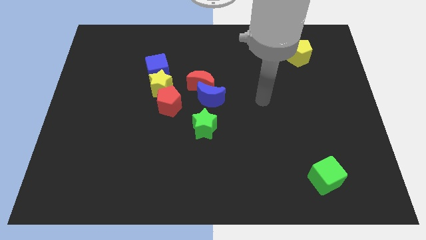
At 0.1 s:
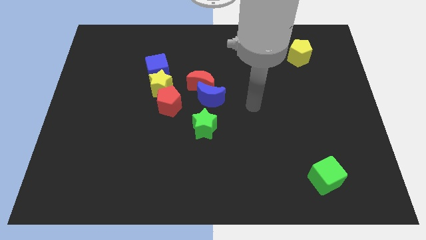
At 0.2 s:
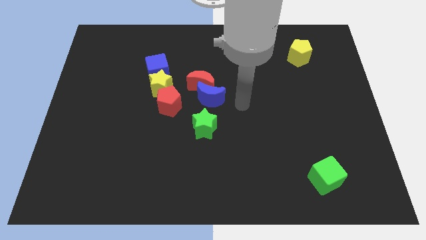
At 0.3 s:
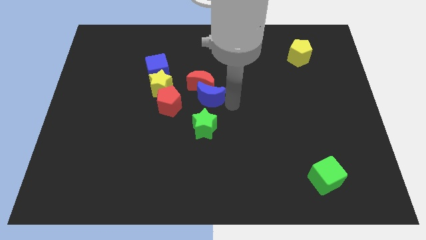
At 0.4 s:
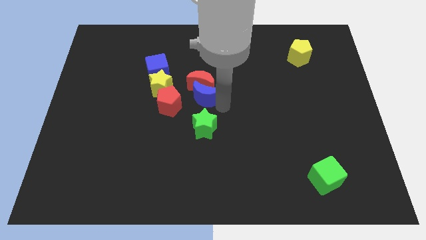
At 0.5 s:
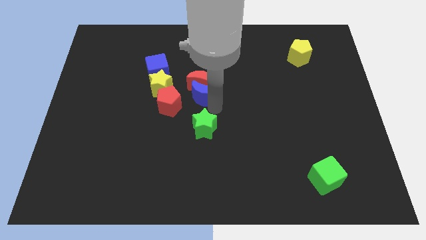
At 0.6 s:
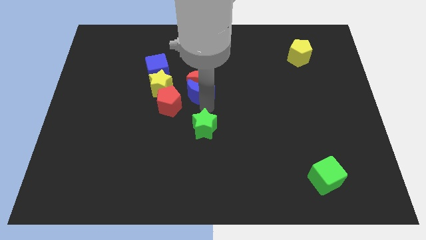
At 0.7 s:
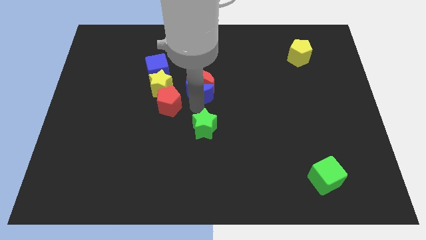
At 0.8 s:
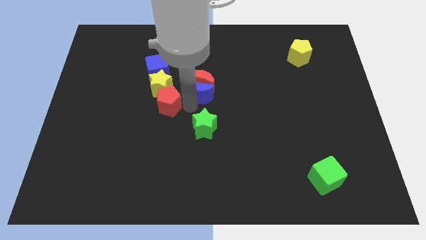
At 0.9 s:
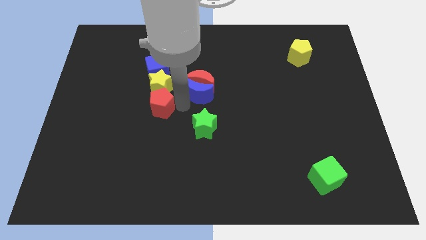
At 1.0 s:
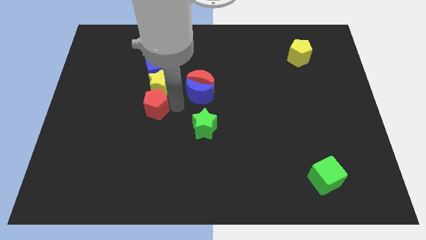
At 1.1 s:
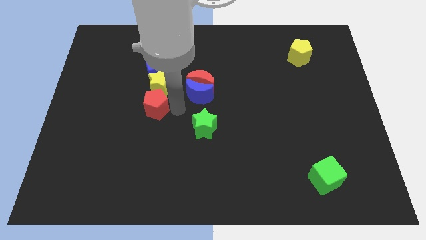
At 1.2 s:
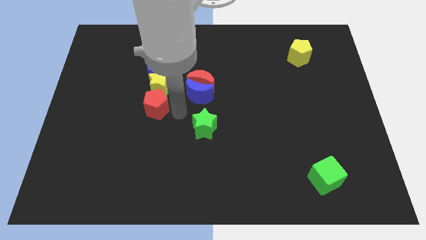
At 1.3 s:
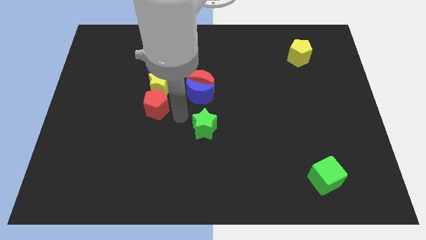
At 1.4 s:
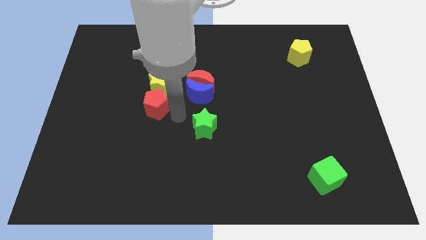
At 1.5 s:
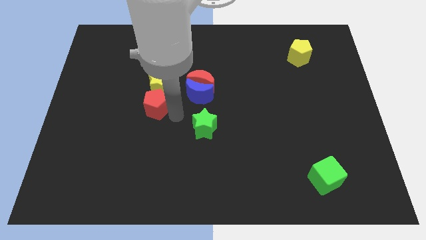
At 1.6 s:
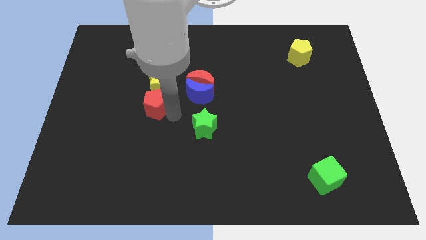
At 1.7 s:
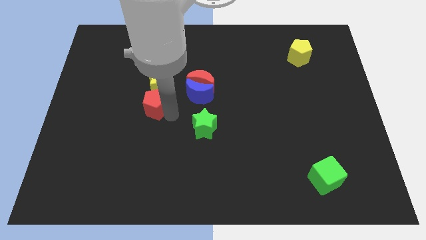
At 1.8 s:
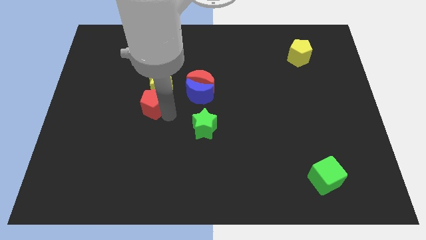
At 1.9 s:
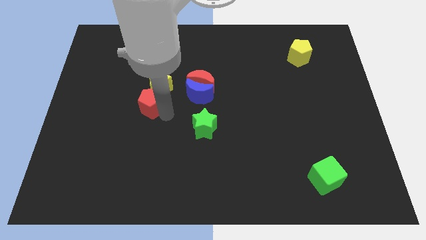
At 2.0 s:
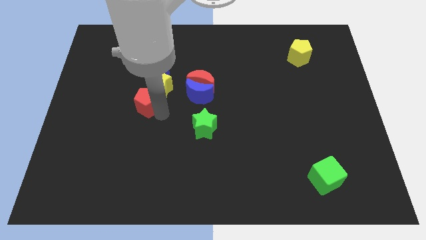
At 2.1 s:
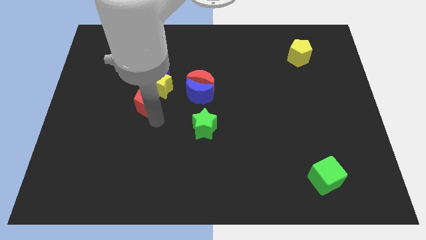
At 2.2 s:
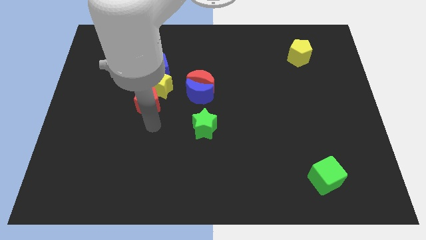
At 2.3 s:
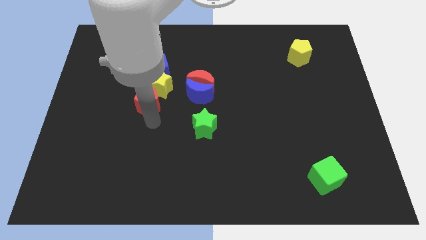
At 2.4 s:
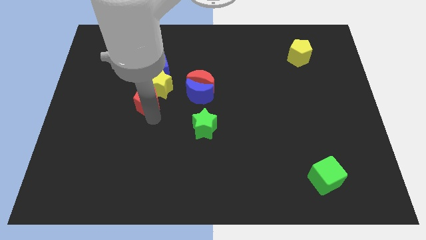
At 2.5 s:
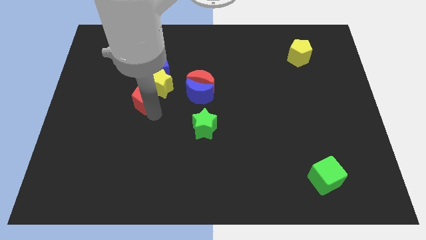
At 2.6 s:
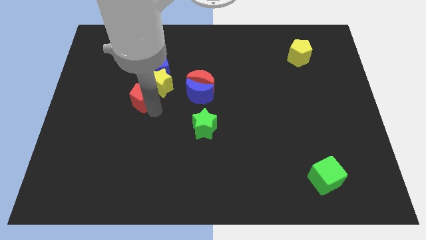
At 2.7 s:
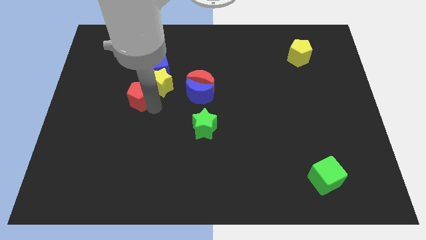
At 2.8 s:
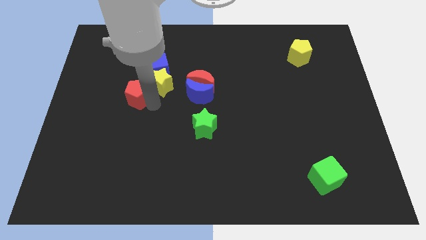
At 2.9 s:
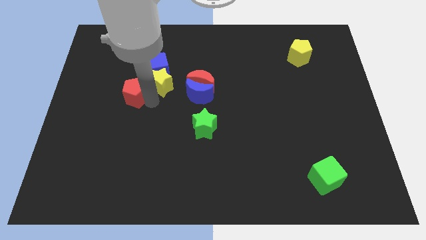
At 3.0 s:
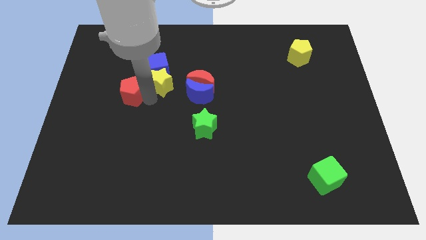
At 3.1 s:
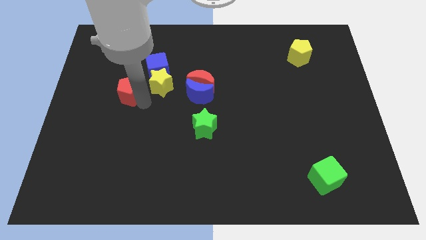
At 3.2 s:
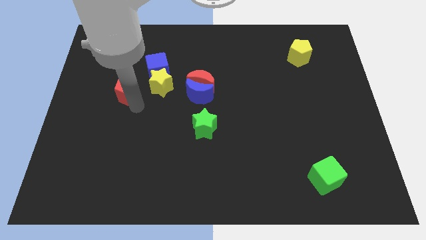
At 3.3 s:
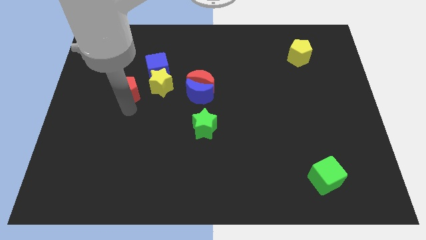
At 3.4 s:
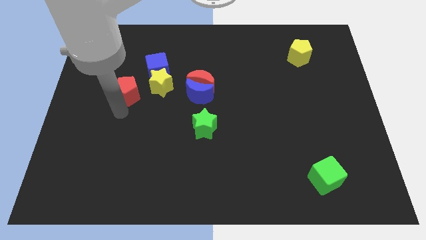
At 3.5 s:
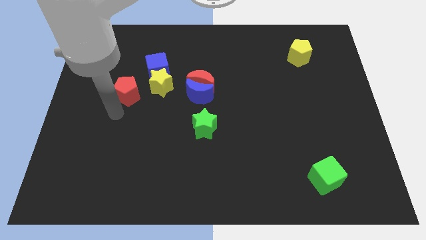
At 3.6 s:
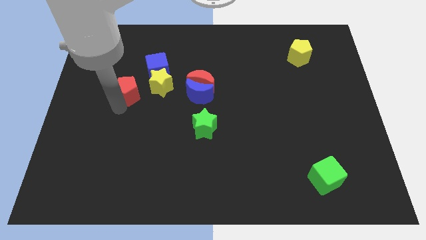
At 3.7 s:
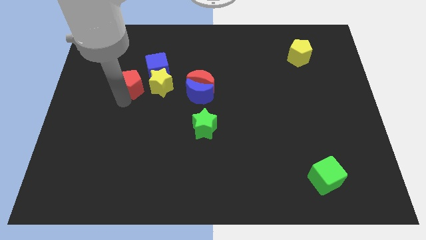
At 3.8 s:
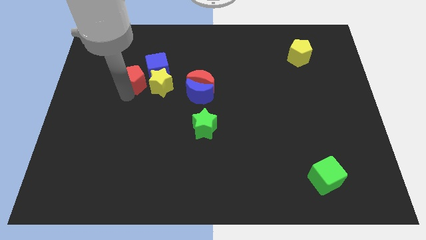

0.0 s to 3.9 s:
move the red pentagon to the top left side of the yellow star

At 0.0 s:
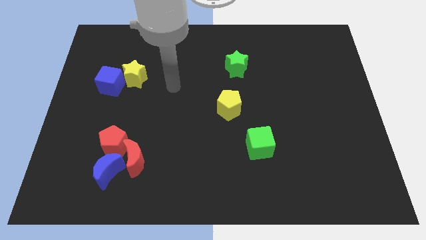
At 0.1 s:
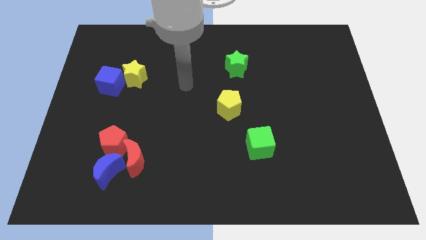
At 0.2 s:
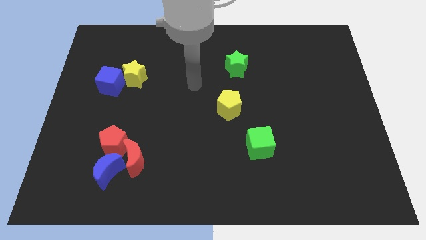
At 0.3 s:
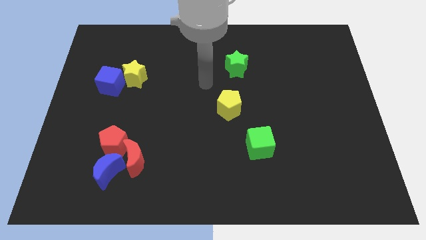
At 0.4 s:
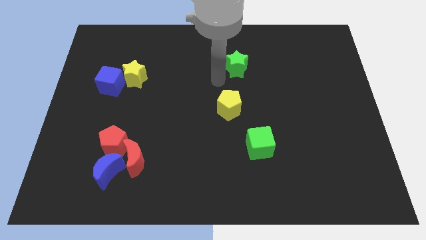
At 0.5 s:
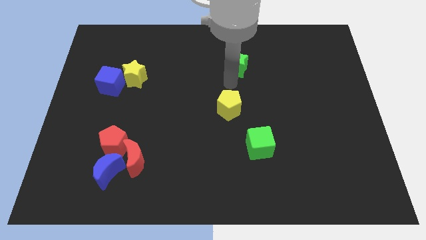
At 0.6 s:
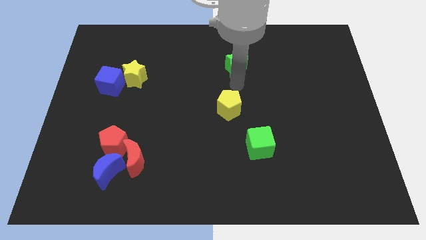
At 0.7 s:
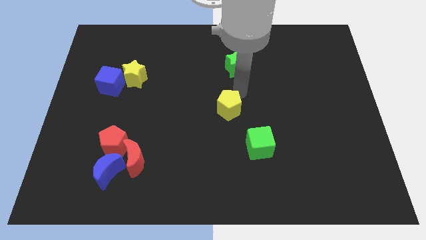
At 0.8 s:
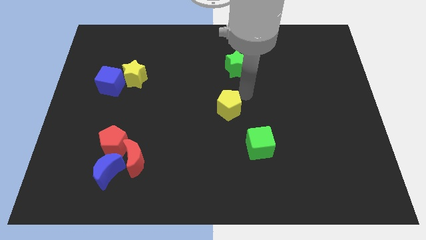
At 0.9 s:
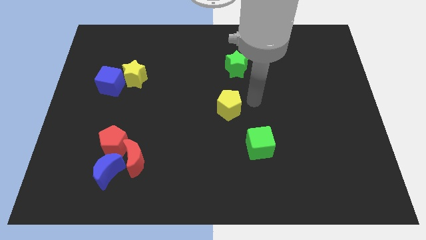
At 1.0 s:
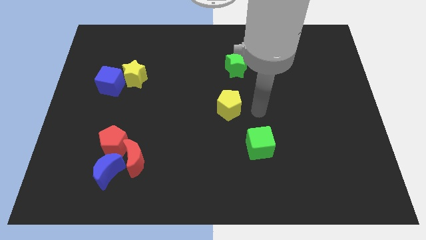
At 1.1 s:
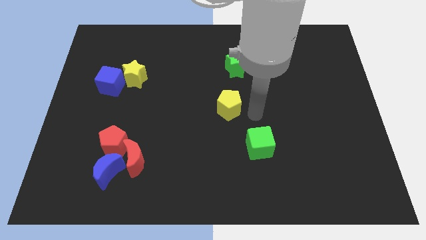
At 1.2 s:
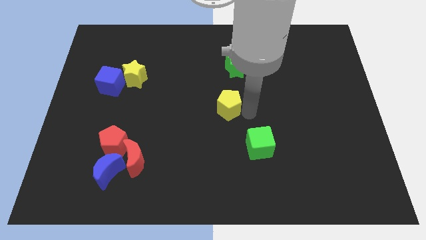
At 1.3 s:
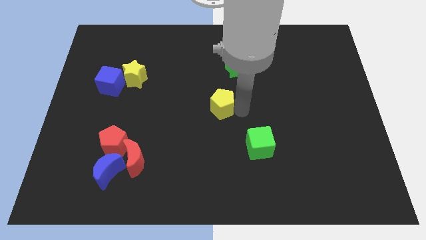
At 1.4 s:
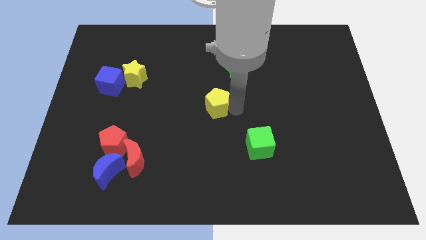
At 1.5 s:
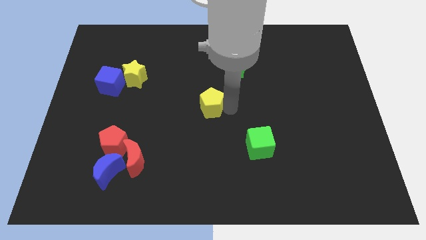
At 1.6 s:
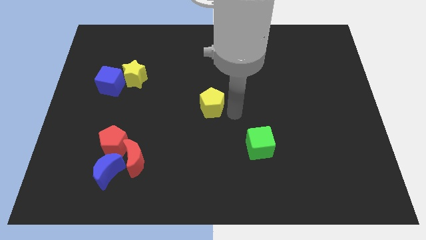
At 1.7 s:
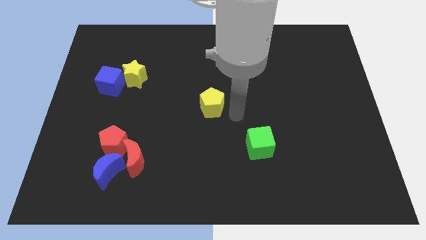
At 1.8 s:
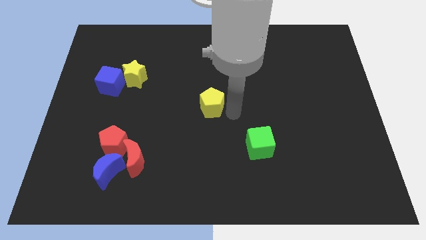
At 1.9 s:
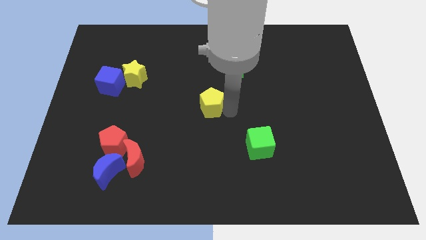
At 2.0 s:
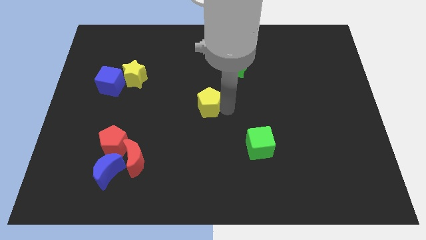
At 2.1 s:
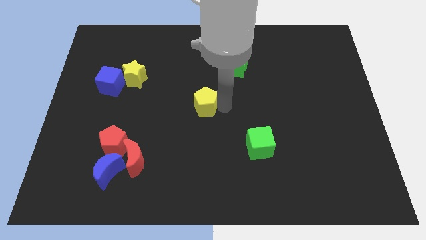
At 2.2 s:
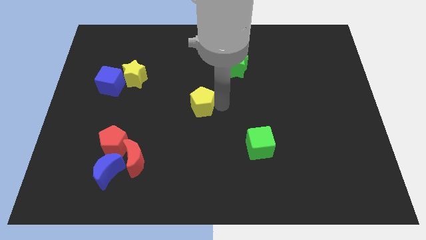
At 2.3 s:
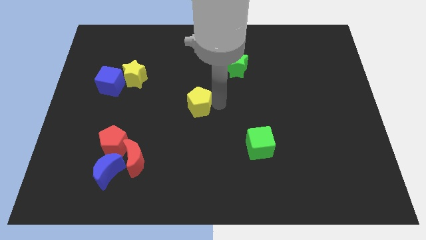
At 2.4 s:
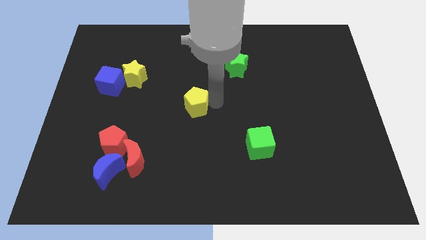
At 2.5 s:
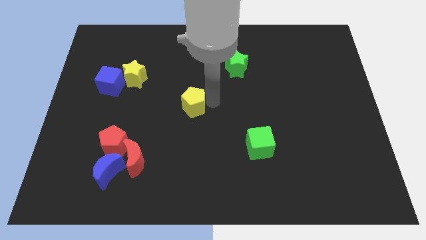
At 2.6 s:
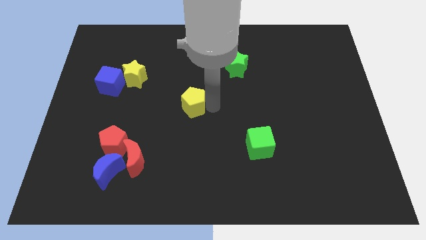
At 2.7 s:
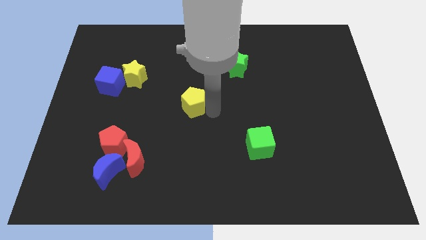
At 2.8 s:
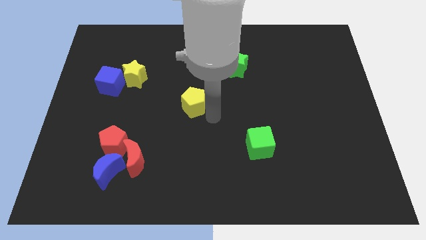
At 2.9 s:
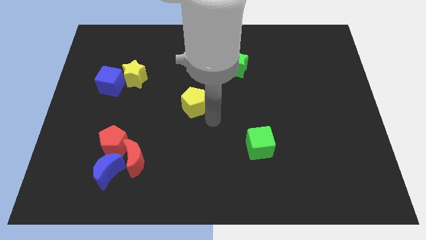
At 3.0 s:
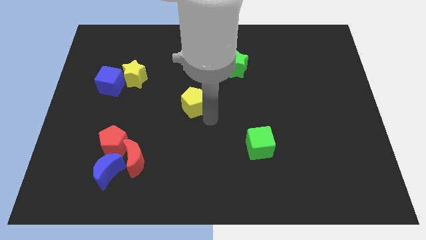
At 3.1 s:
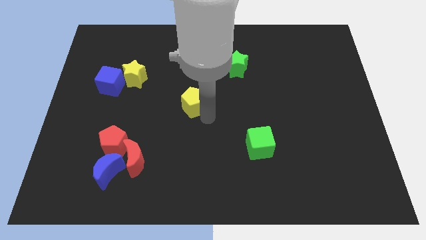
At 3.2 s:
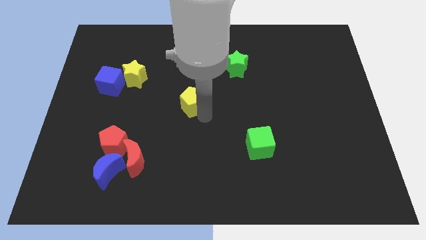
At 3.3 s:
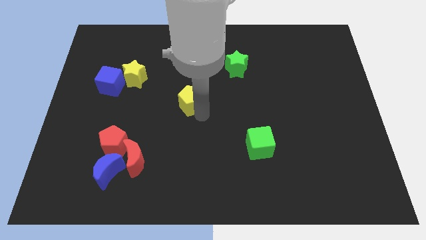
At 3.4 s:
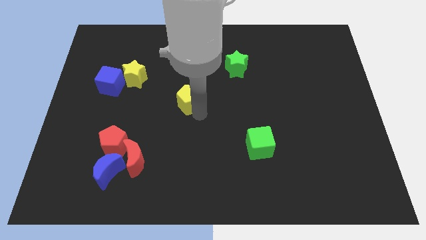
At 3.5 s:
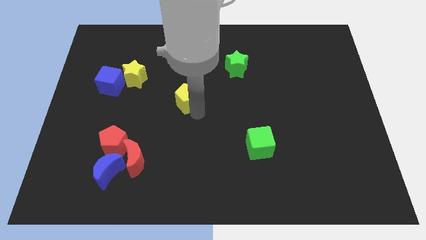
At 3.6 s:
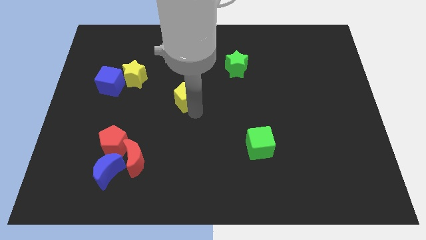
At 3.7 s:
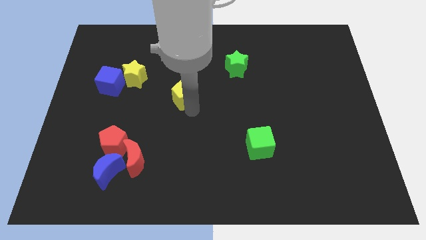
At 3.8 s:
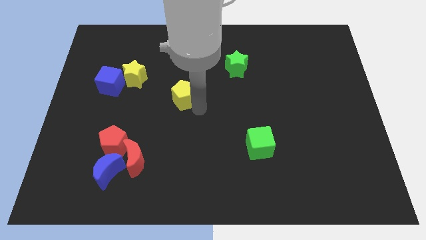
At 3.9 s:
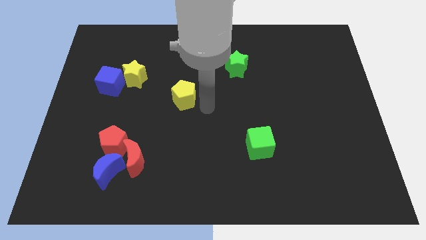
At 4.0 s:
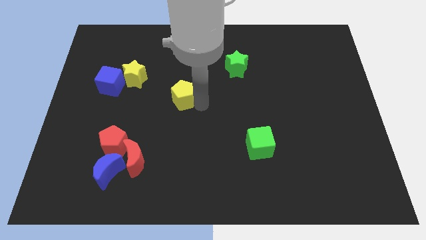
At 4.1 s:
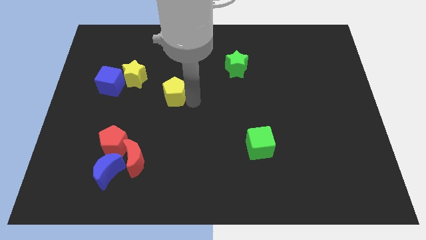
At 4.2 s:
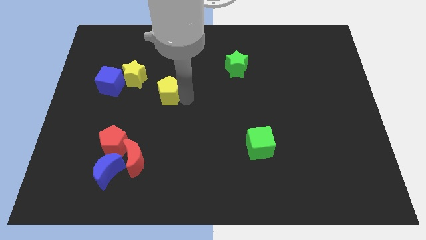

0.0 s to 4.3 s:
slide the yellow pentagon right of the blue cube
